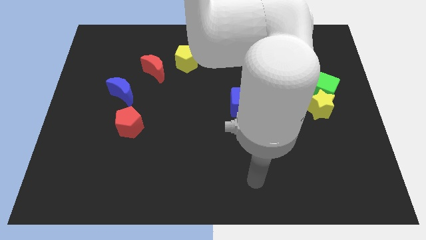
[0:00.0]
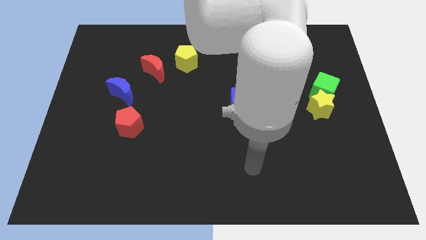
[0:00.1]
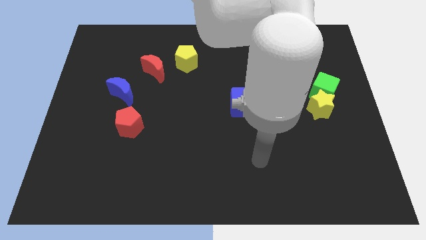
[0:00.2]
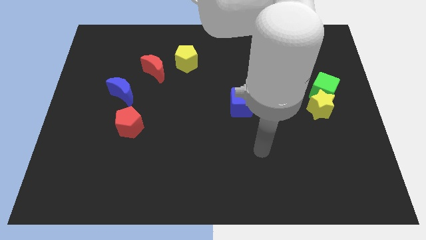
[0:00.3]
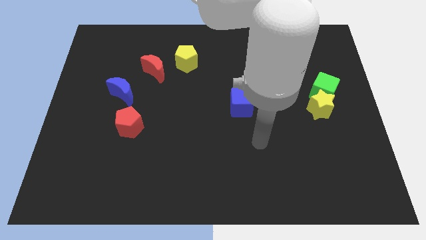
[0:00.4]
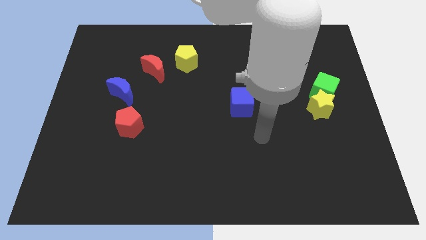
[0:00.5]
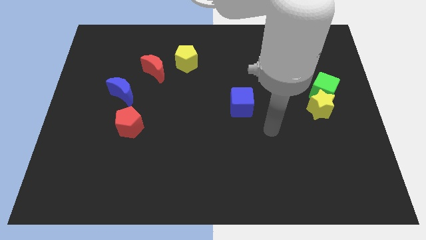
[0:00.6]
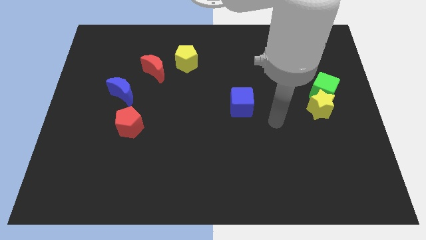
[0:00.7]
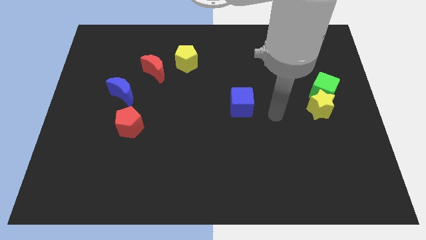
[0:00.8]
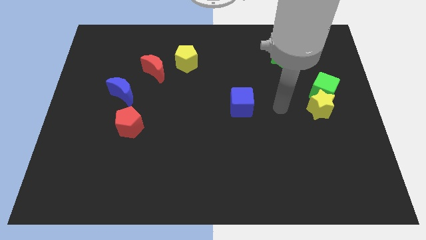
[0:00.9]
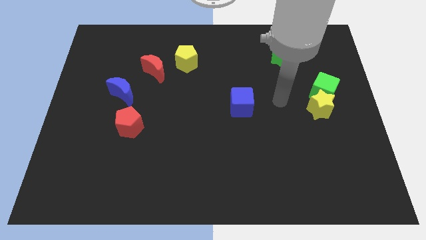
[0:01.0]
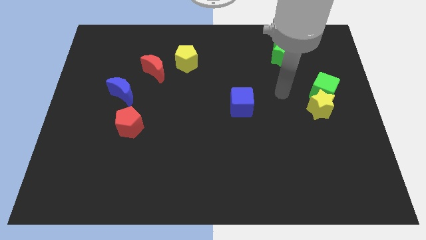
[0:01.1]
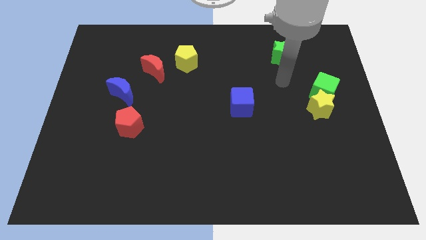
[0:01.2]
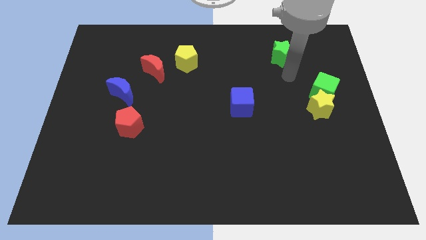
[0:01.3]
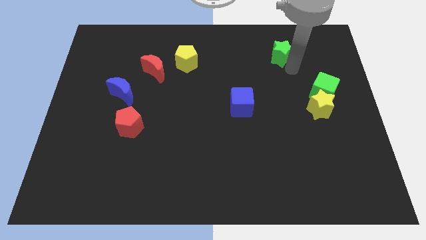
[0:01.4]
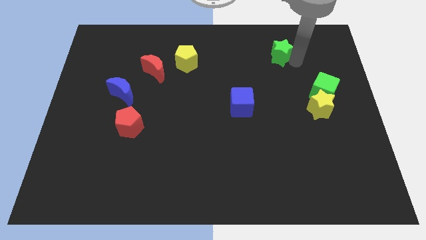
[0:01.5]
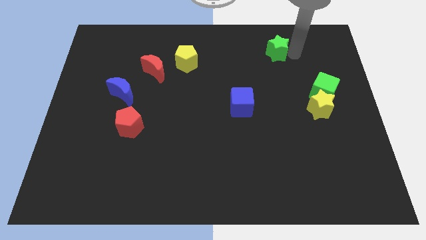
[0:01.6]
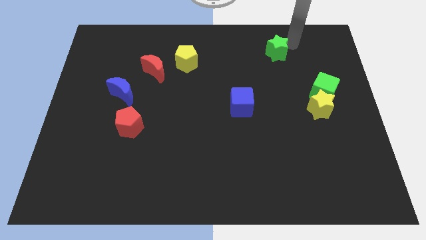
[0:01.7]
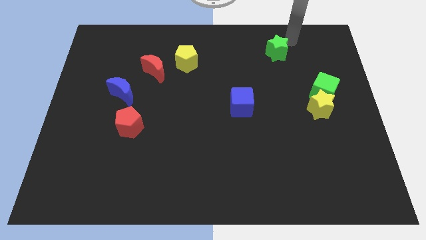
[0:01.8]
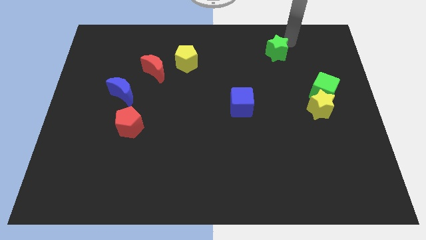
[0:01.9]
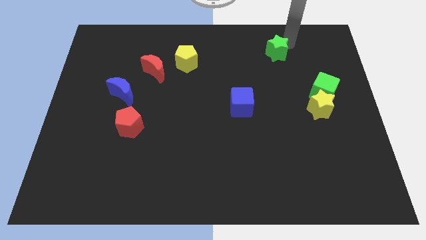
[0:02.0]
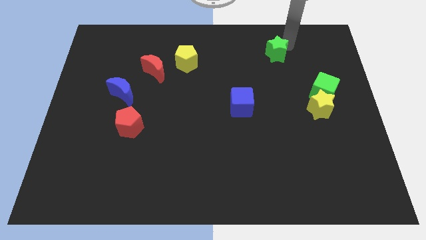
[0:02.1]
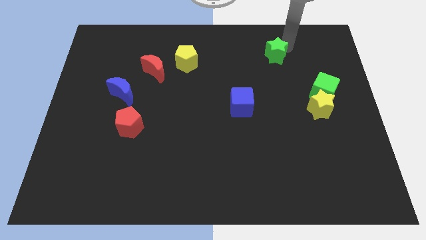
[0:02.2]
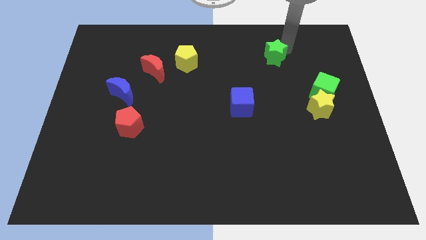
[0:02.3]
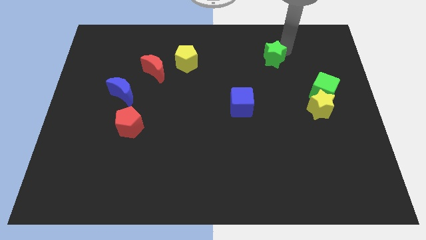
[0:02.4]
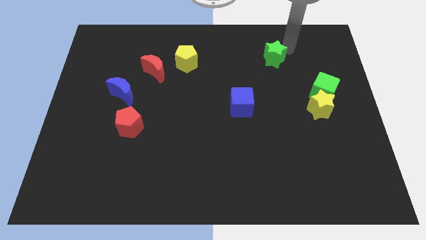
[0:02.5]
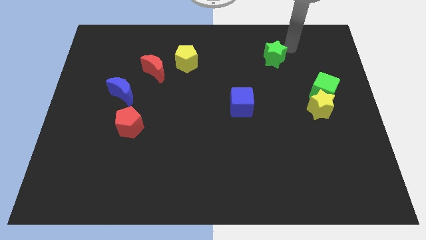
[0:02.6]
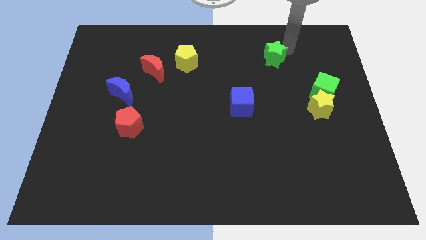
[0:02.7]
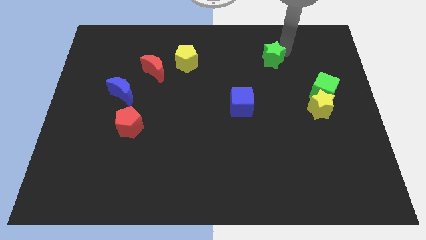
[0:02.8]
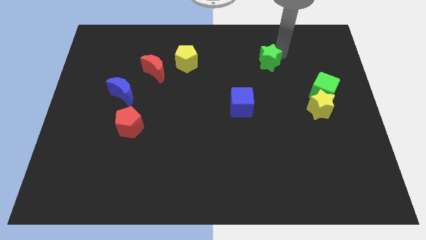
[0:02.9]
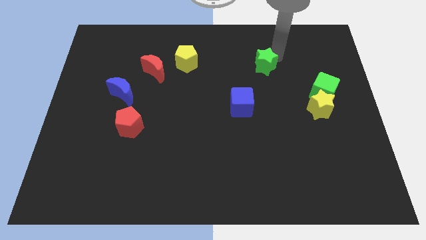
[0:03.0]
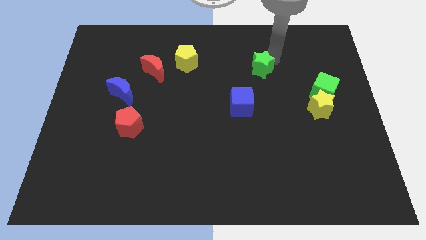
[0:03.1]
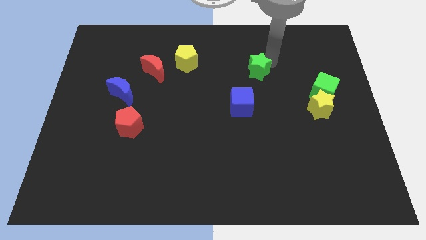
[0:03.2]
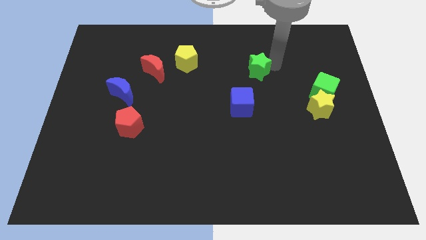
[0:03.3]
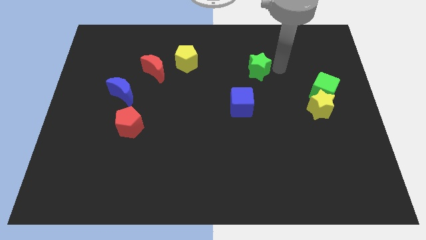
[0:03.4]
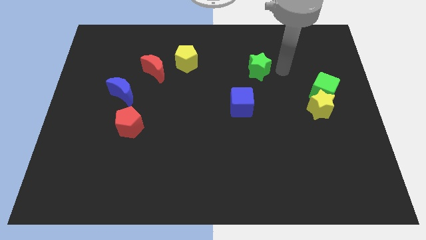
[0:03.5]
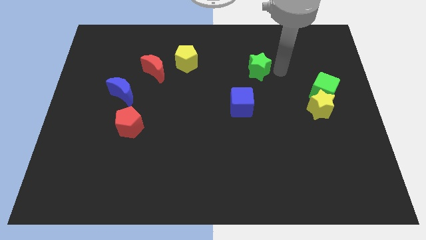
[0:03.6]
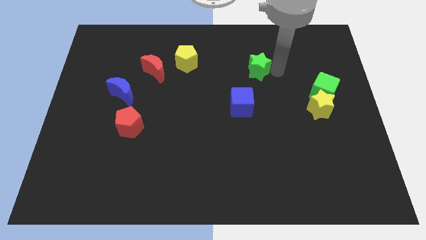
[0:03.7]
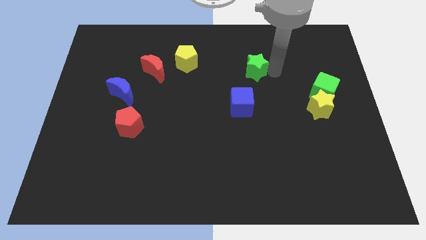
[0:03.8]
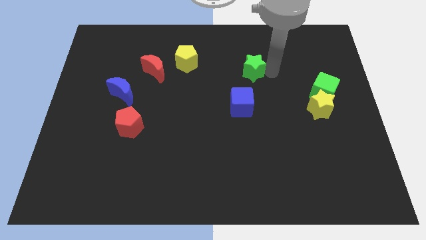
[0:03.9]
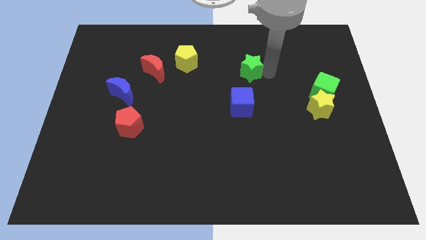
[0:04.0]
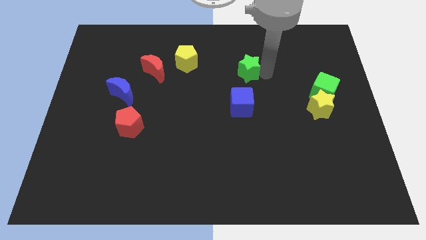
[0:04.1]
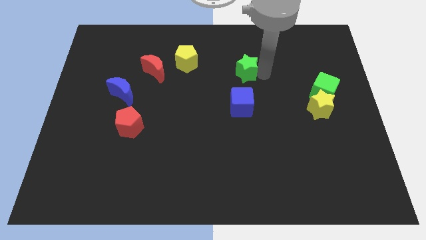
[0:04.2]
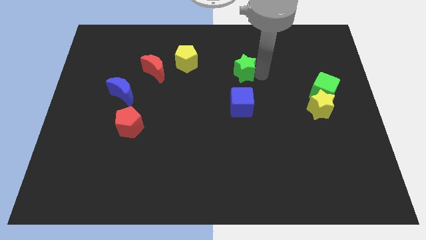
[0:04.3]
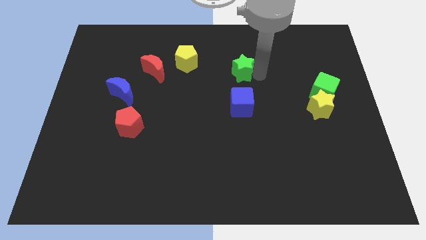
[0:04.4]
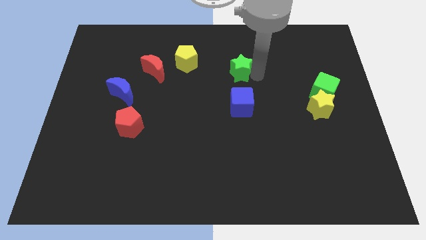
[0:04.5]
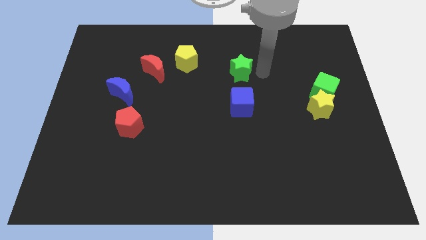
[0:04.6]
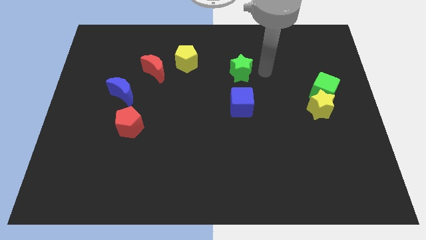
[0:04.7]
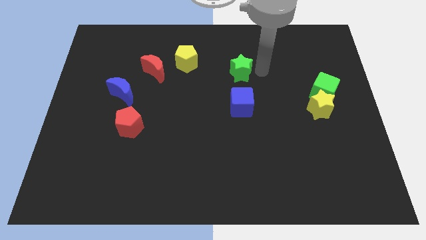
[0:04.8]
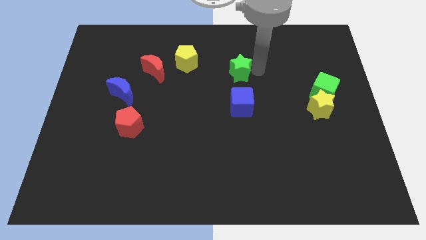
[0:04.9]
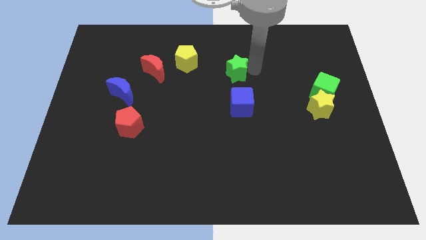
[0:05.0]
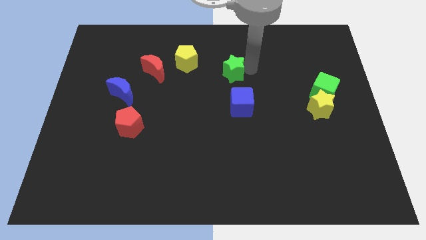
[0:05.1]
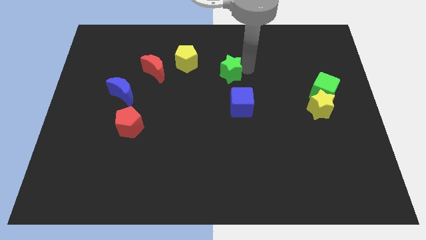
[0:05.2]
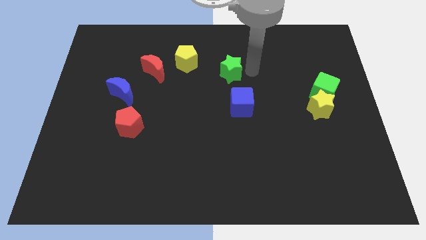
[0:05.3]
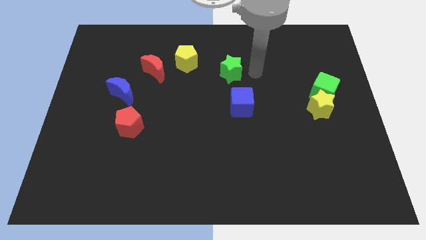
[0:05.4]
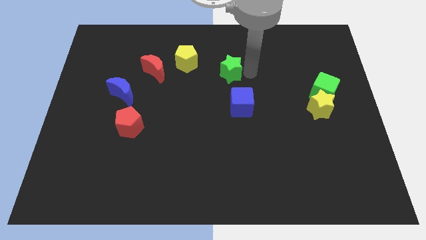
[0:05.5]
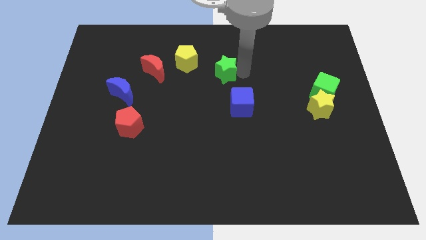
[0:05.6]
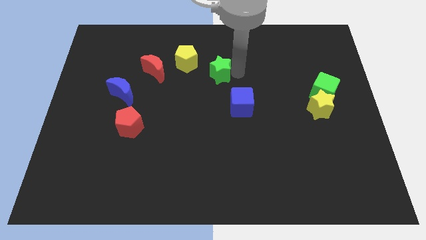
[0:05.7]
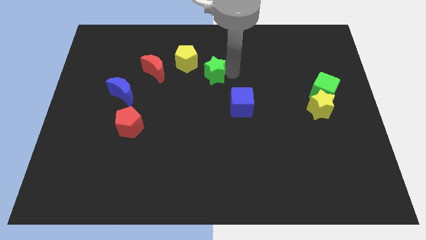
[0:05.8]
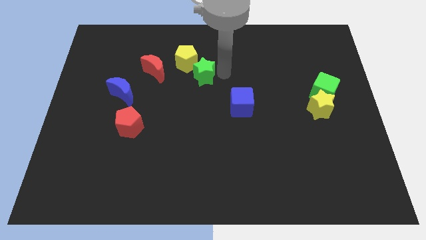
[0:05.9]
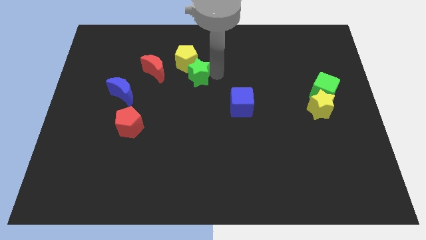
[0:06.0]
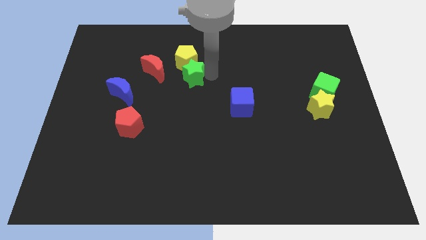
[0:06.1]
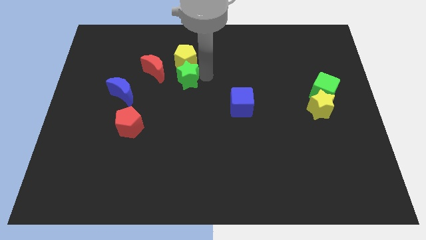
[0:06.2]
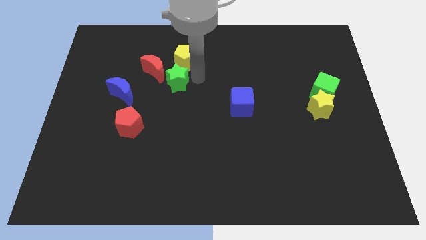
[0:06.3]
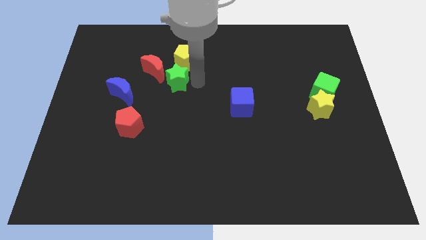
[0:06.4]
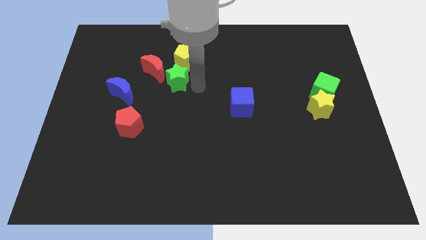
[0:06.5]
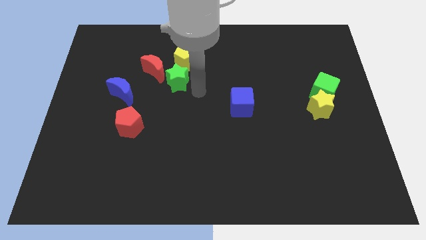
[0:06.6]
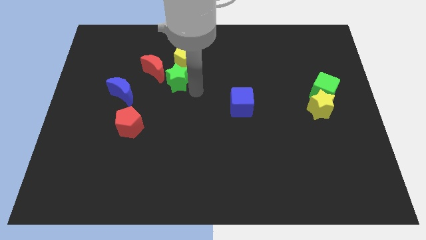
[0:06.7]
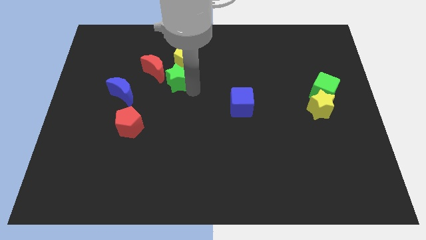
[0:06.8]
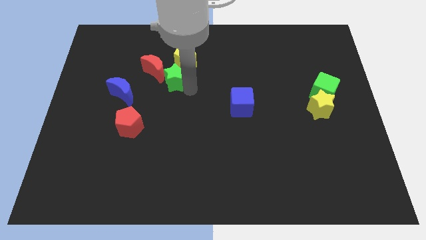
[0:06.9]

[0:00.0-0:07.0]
put the green star towards the red moon

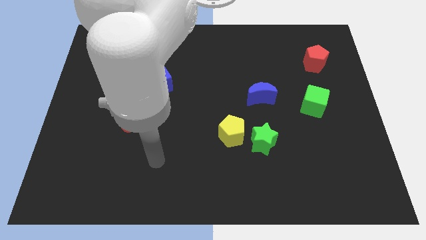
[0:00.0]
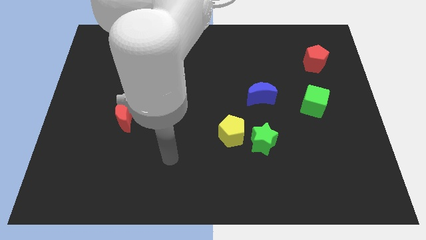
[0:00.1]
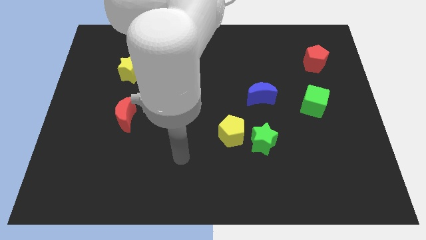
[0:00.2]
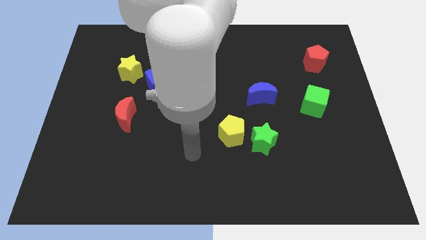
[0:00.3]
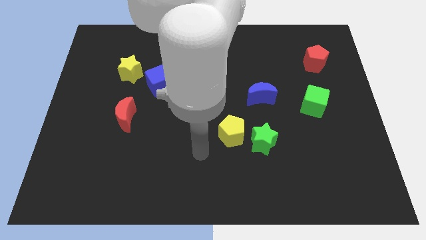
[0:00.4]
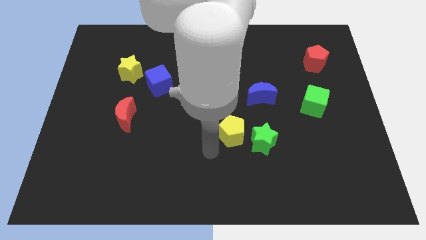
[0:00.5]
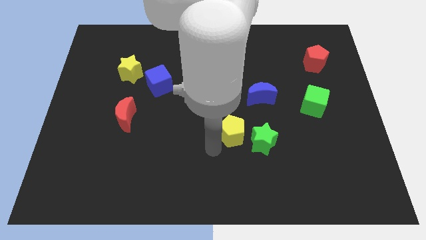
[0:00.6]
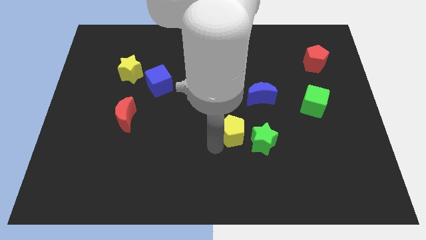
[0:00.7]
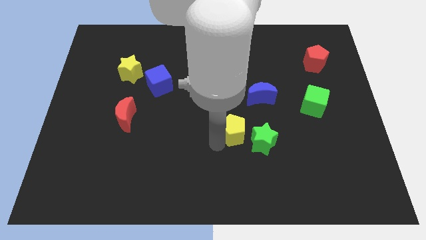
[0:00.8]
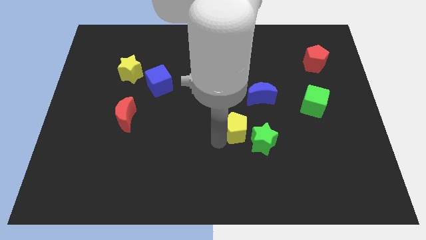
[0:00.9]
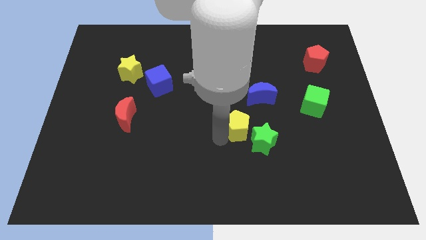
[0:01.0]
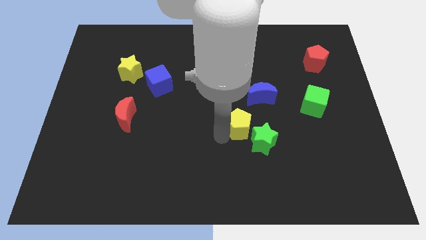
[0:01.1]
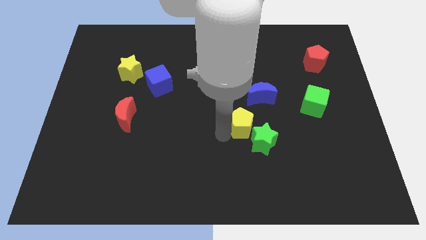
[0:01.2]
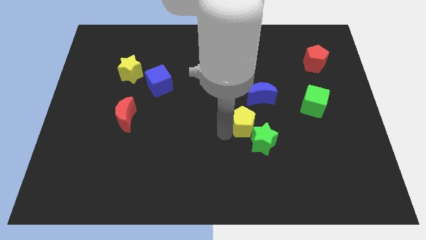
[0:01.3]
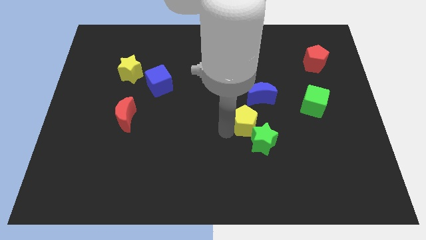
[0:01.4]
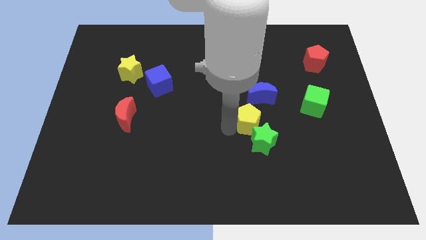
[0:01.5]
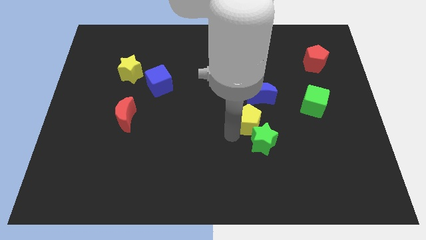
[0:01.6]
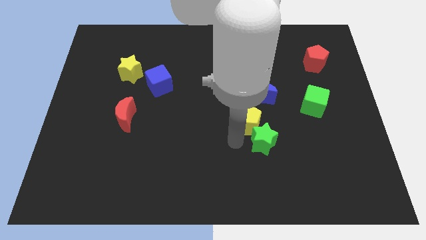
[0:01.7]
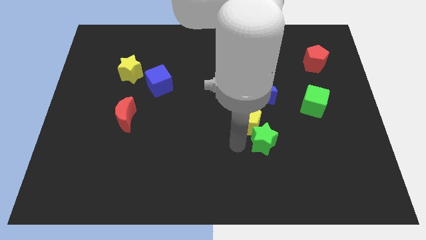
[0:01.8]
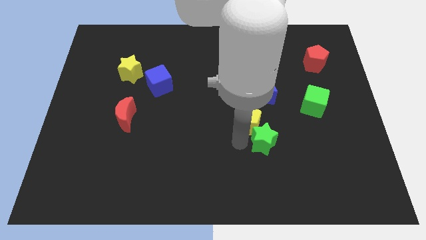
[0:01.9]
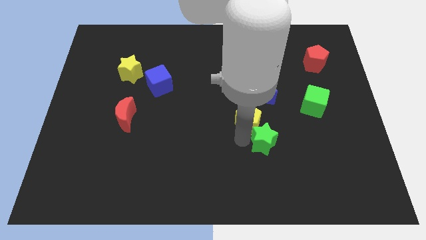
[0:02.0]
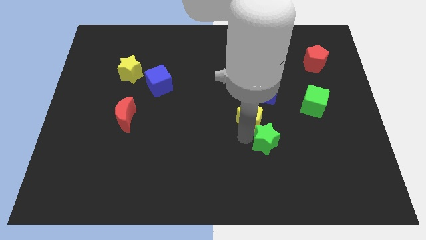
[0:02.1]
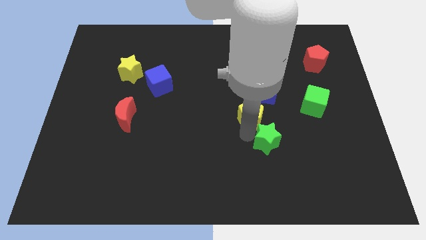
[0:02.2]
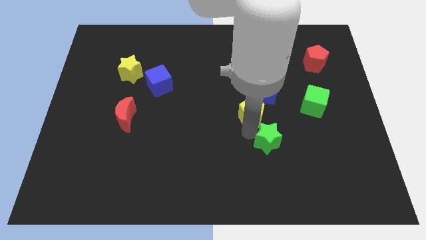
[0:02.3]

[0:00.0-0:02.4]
put the yellow pentagon towards the blue moon
